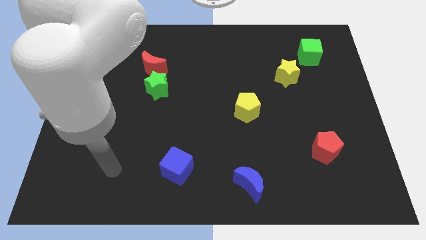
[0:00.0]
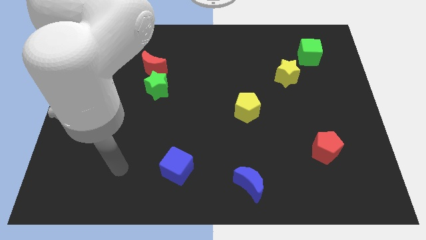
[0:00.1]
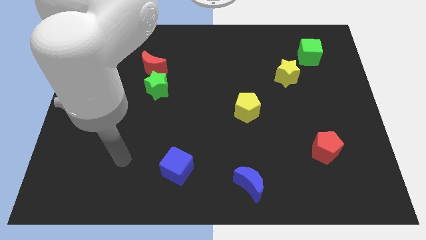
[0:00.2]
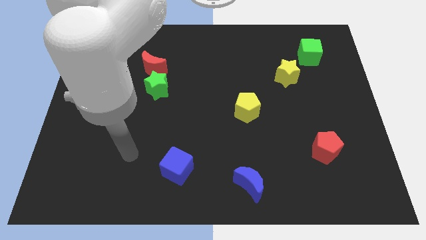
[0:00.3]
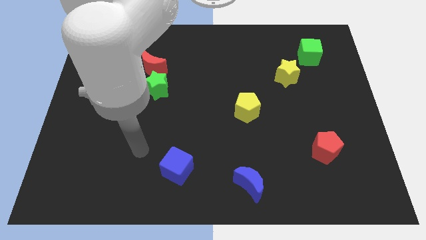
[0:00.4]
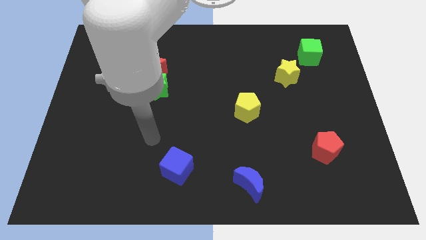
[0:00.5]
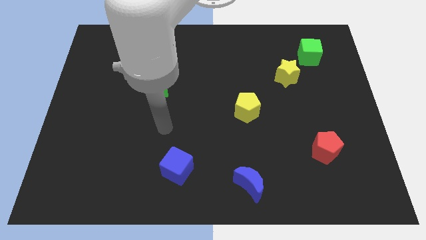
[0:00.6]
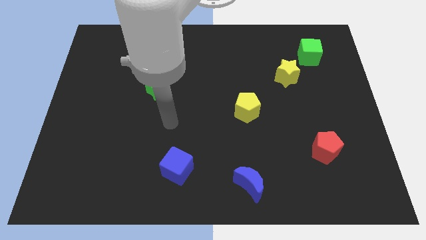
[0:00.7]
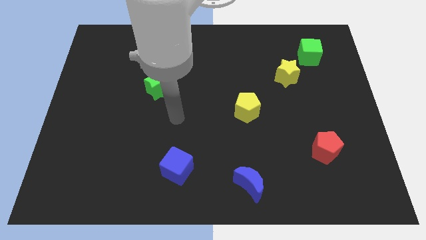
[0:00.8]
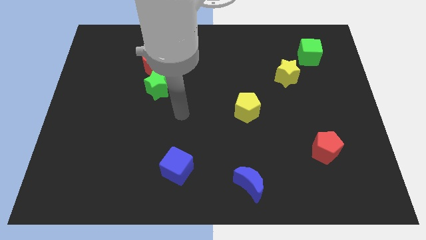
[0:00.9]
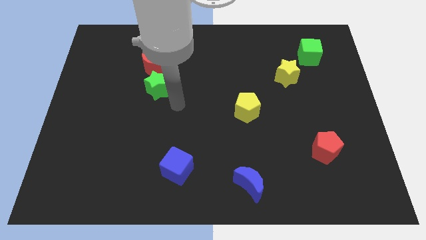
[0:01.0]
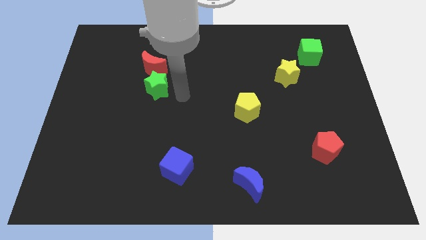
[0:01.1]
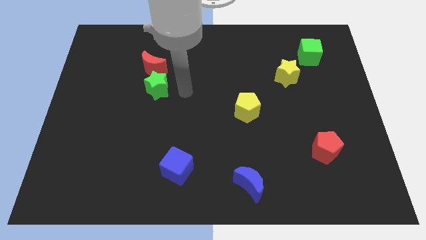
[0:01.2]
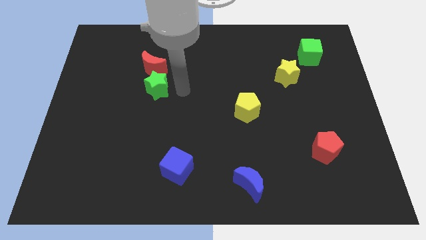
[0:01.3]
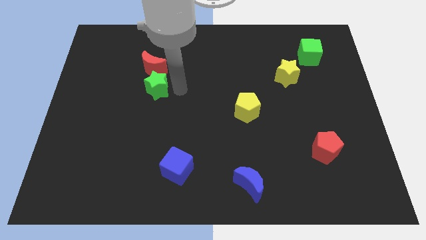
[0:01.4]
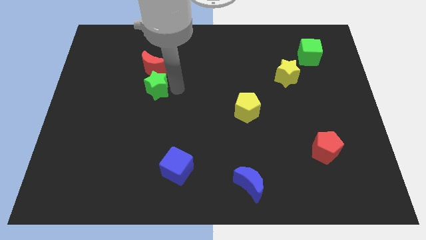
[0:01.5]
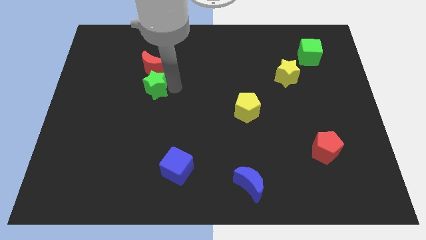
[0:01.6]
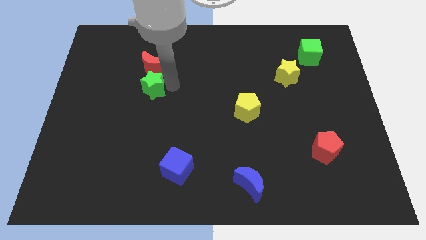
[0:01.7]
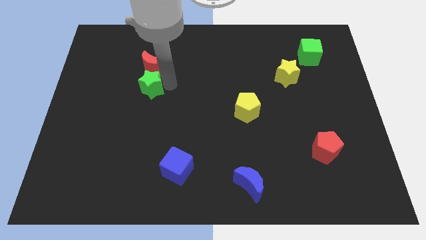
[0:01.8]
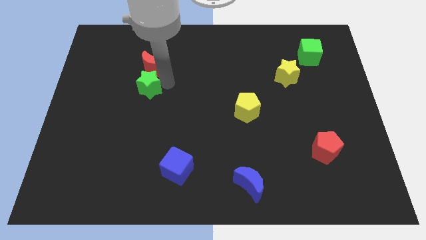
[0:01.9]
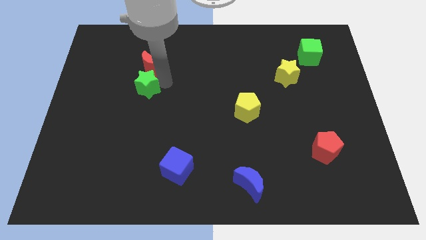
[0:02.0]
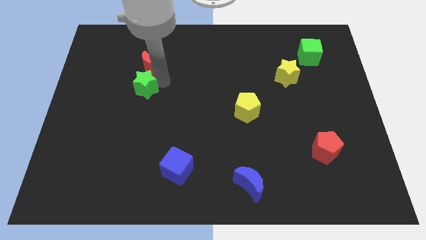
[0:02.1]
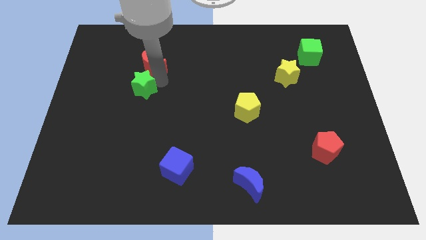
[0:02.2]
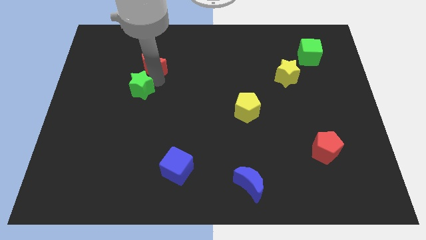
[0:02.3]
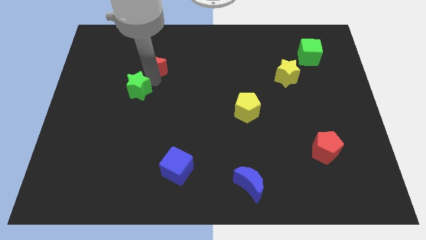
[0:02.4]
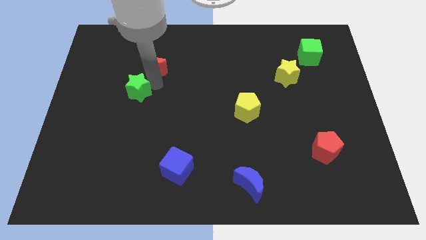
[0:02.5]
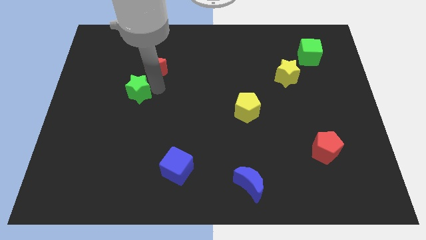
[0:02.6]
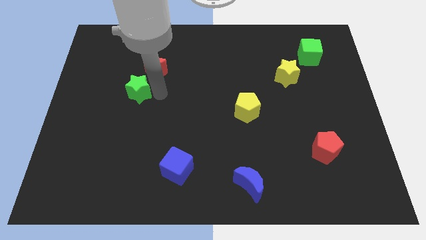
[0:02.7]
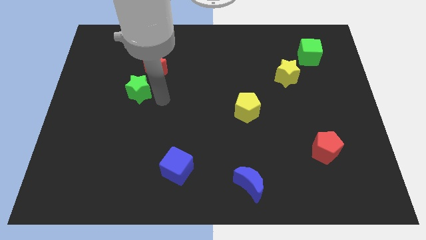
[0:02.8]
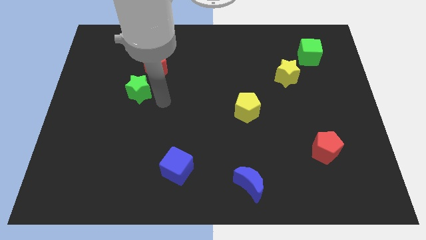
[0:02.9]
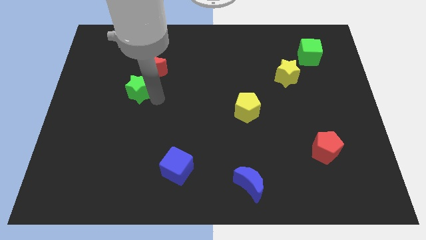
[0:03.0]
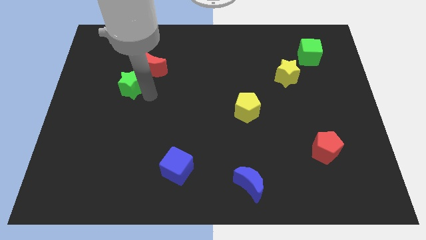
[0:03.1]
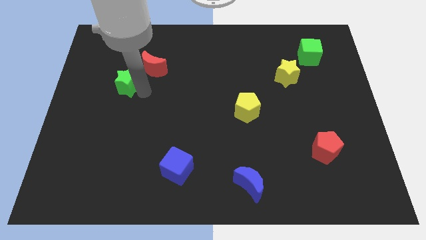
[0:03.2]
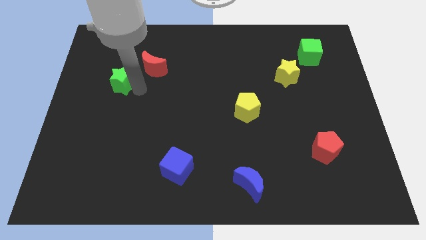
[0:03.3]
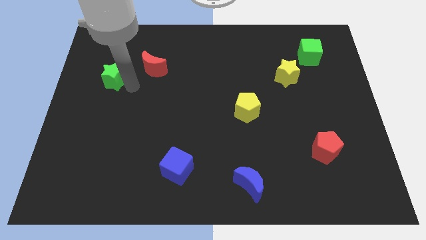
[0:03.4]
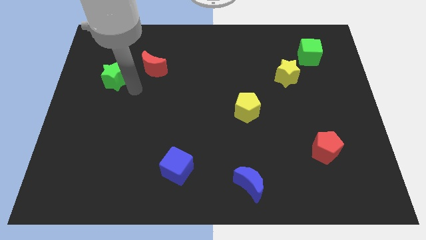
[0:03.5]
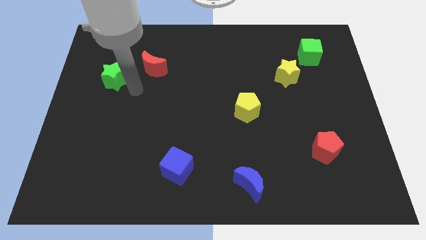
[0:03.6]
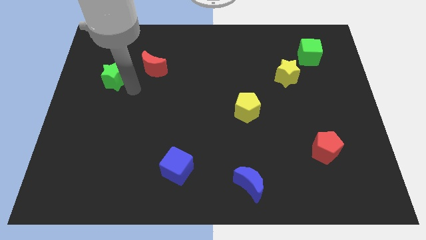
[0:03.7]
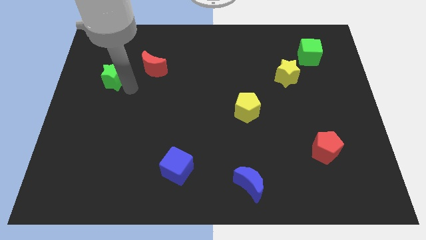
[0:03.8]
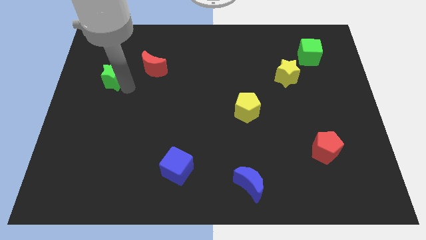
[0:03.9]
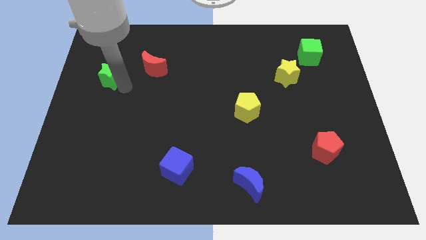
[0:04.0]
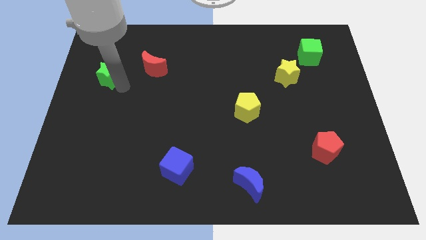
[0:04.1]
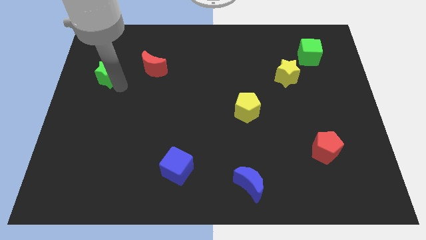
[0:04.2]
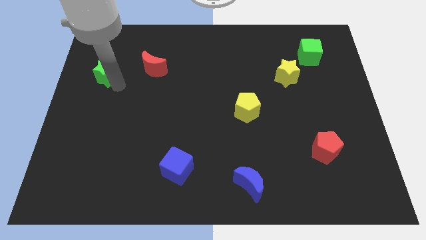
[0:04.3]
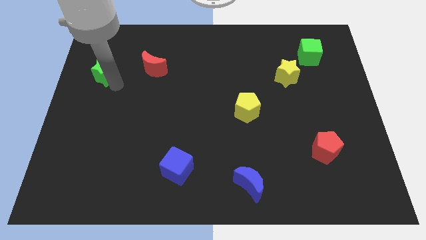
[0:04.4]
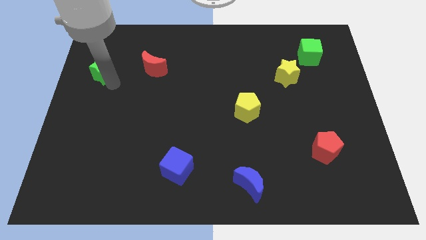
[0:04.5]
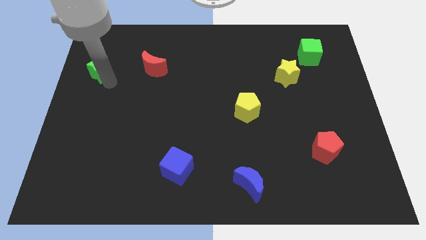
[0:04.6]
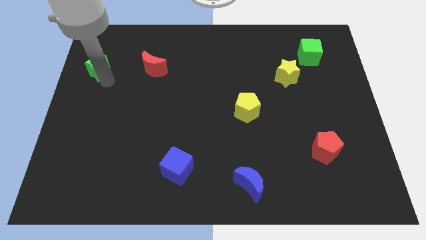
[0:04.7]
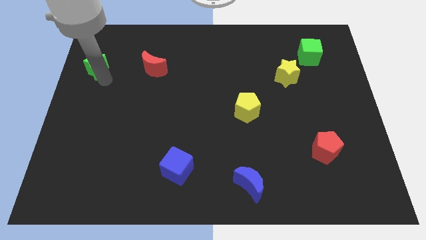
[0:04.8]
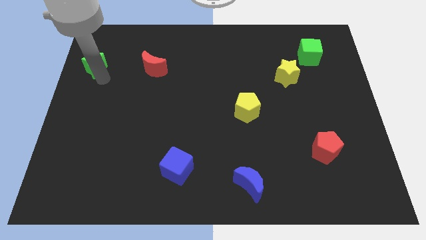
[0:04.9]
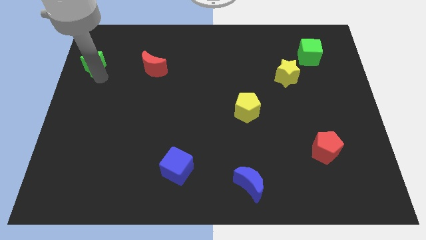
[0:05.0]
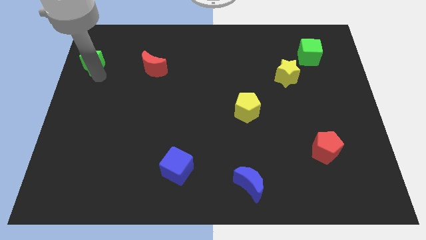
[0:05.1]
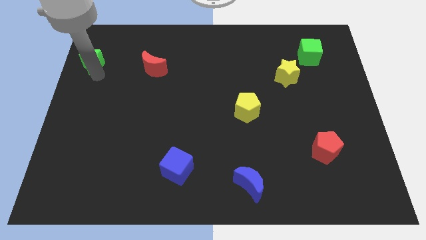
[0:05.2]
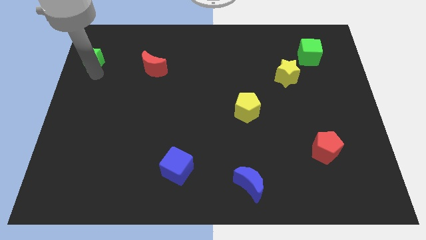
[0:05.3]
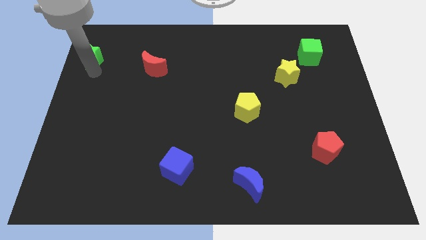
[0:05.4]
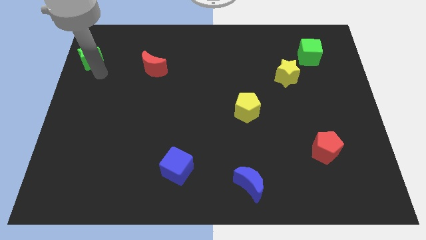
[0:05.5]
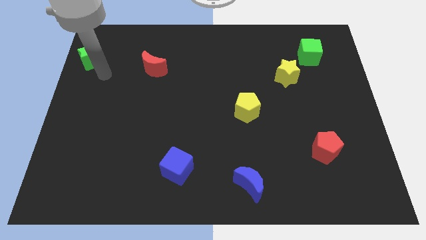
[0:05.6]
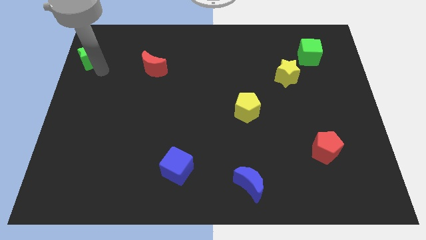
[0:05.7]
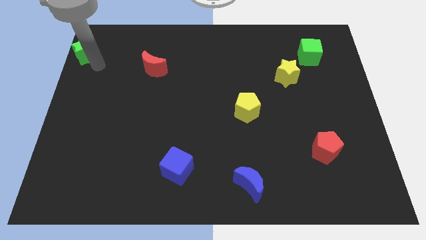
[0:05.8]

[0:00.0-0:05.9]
slide the green star to the top left

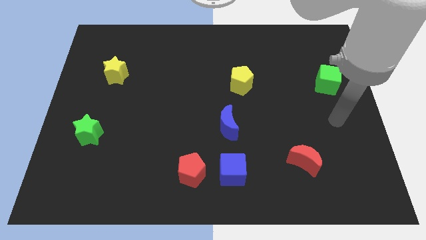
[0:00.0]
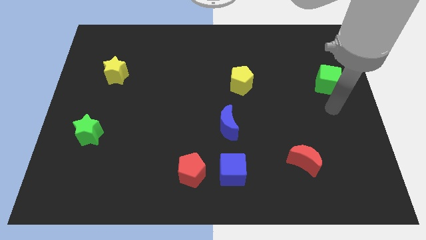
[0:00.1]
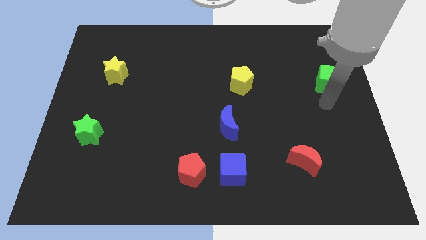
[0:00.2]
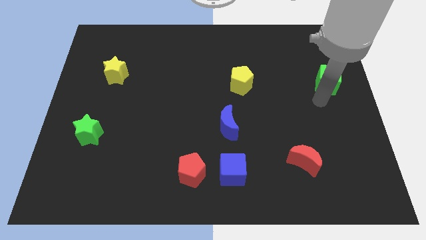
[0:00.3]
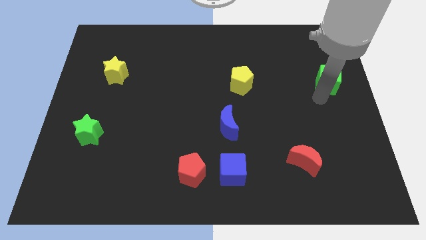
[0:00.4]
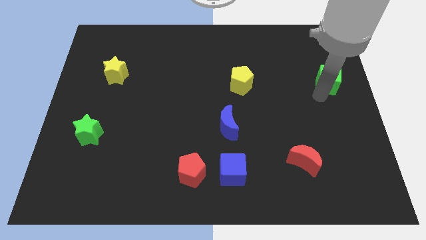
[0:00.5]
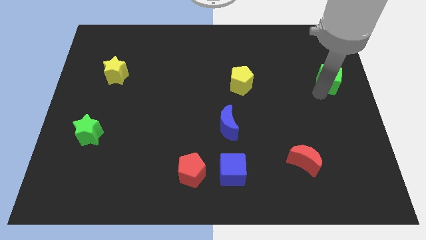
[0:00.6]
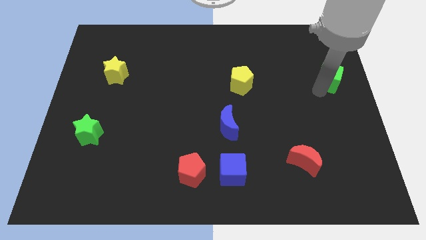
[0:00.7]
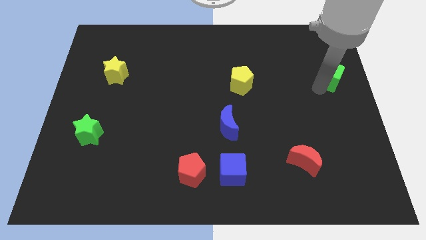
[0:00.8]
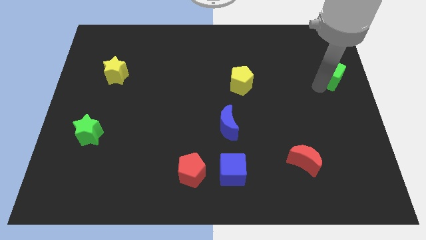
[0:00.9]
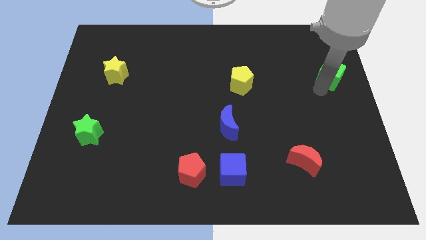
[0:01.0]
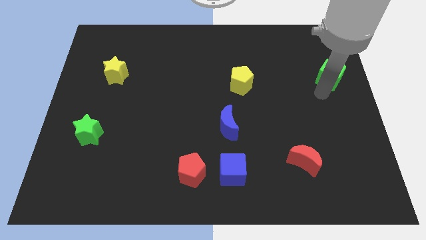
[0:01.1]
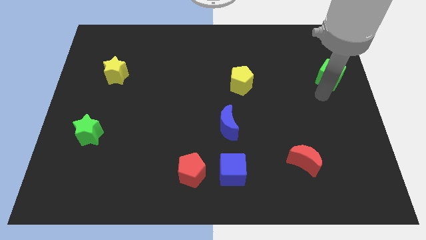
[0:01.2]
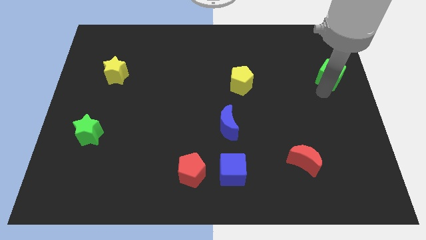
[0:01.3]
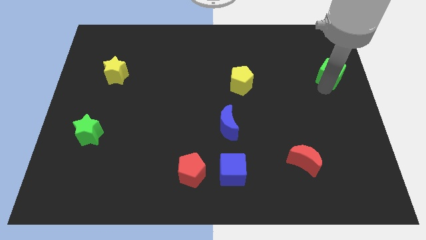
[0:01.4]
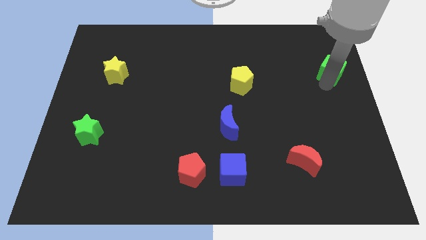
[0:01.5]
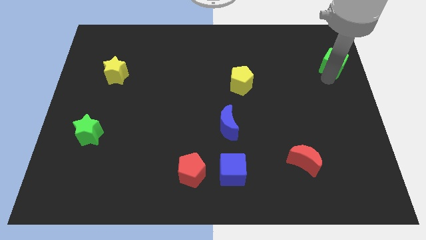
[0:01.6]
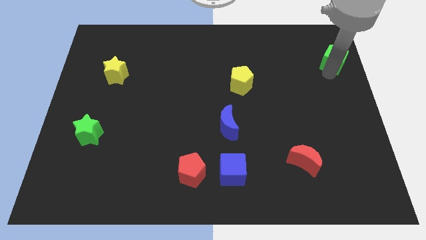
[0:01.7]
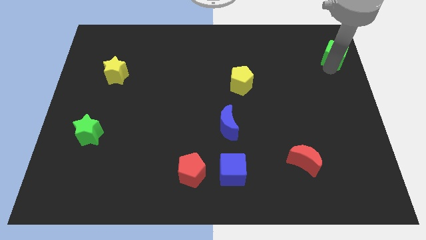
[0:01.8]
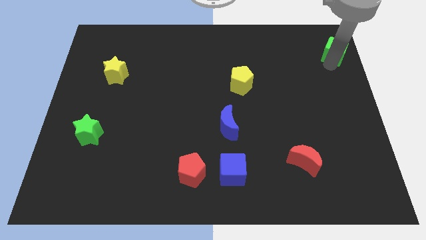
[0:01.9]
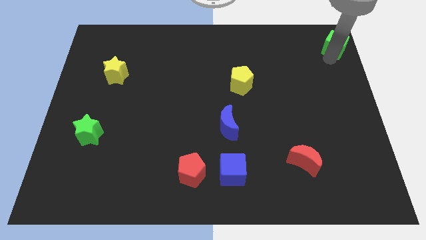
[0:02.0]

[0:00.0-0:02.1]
push the green cube to the top right
